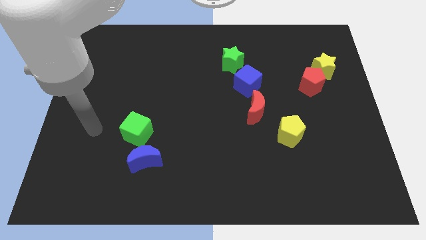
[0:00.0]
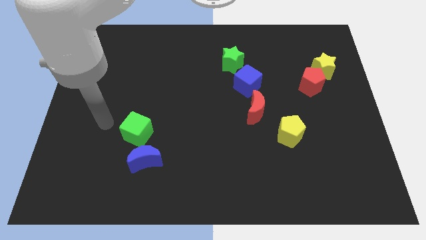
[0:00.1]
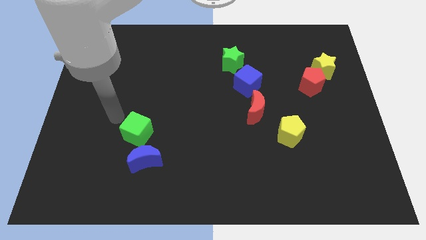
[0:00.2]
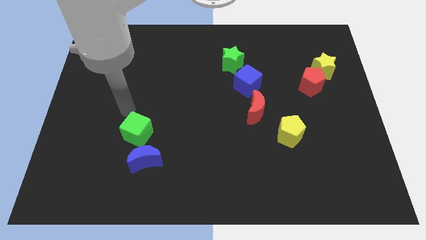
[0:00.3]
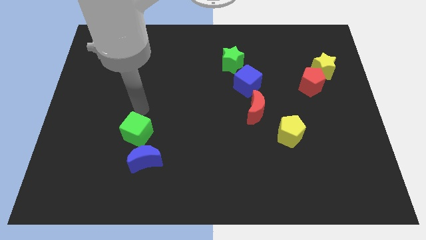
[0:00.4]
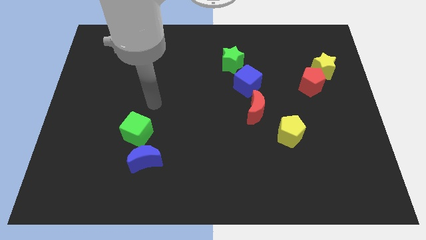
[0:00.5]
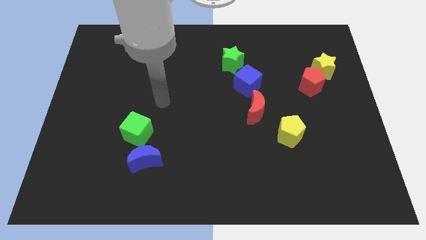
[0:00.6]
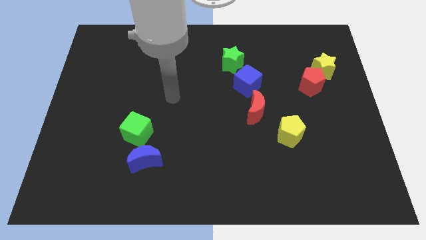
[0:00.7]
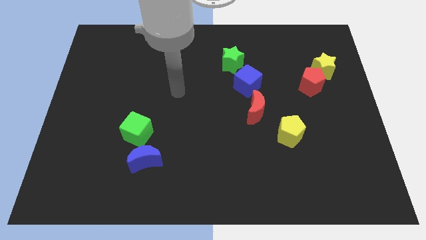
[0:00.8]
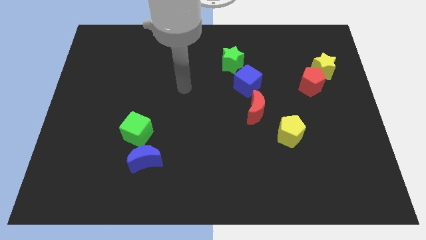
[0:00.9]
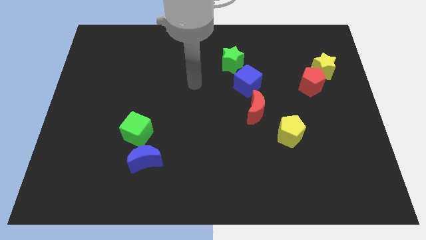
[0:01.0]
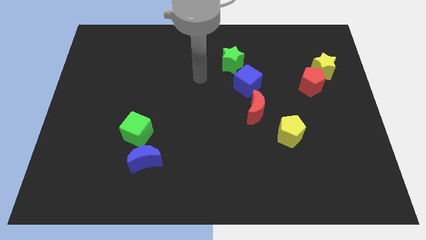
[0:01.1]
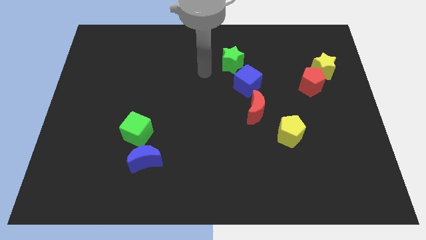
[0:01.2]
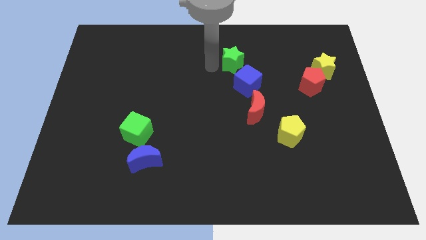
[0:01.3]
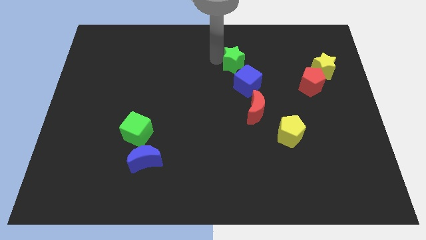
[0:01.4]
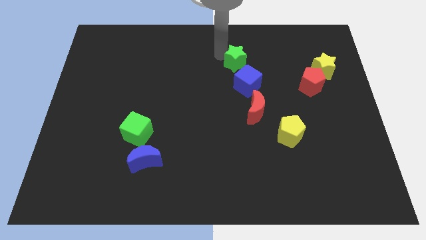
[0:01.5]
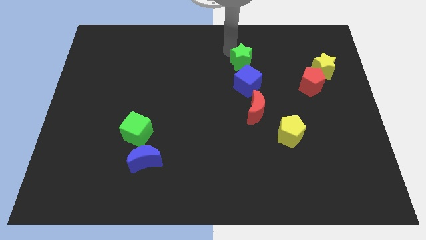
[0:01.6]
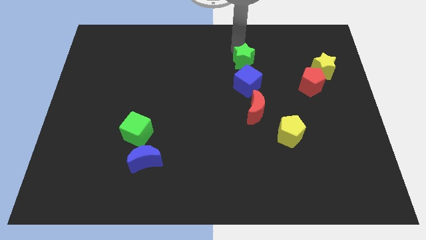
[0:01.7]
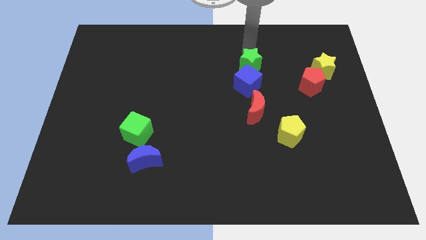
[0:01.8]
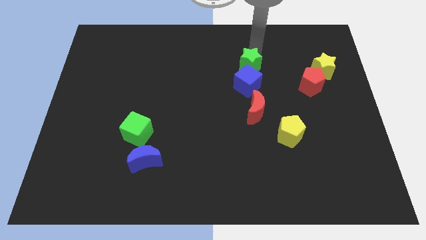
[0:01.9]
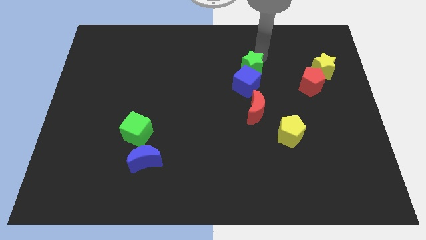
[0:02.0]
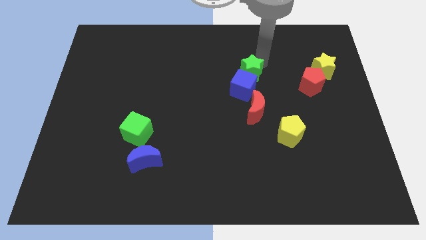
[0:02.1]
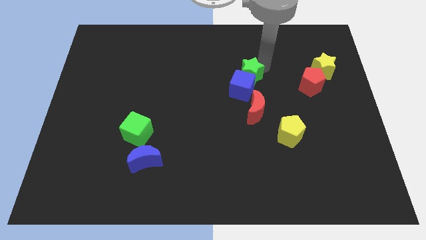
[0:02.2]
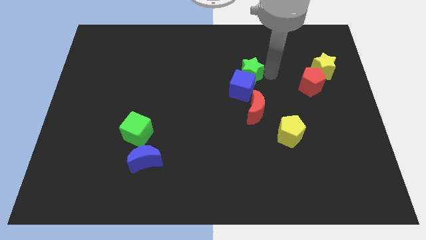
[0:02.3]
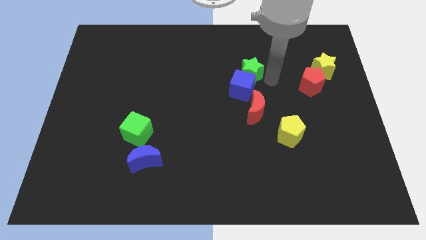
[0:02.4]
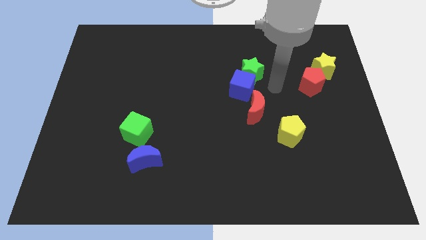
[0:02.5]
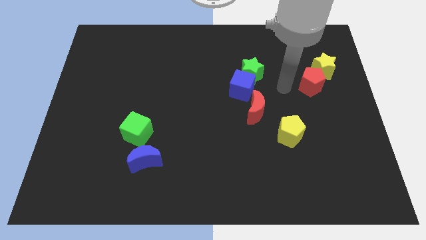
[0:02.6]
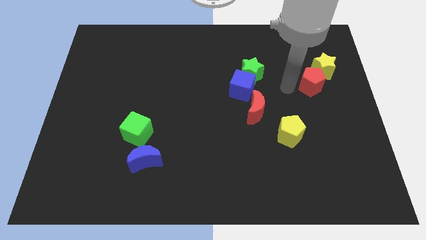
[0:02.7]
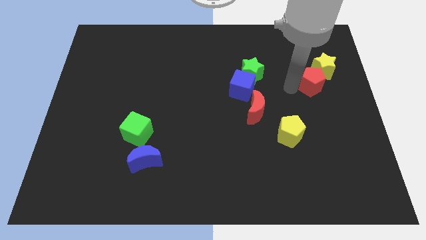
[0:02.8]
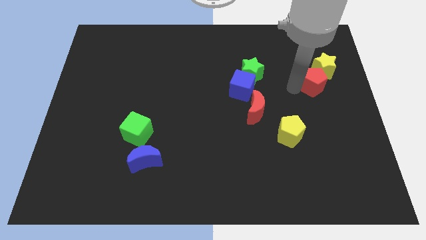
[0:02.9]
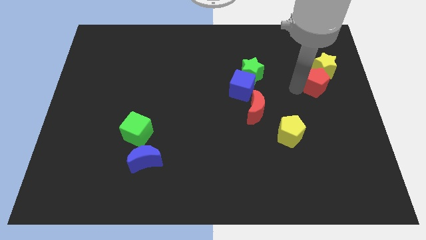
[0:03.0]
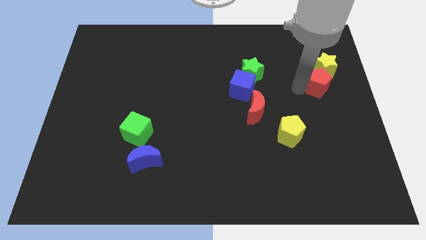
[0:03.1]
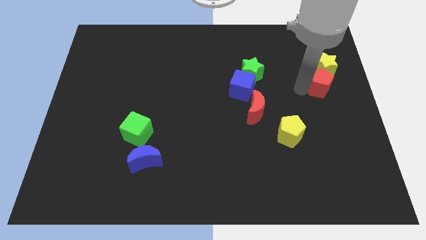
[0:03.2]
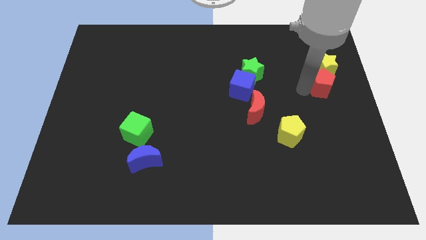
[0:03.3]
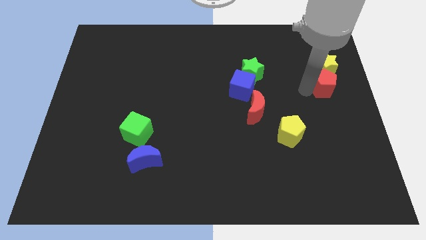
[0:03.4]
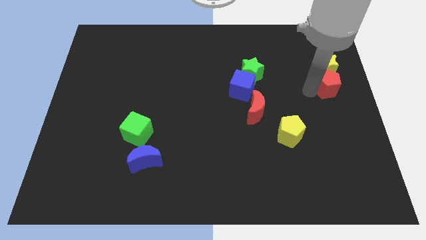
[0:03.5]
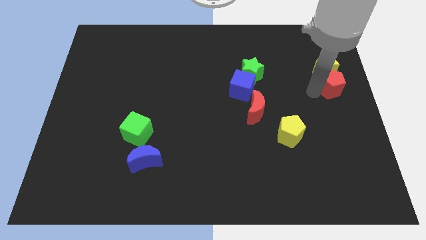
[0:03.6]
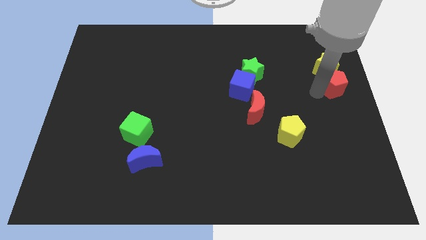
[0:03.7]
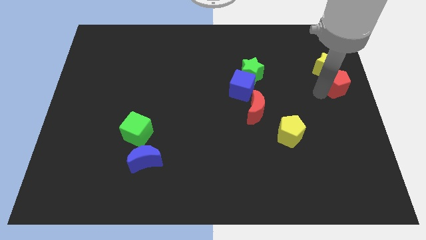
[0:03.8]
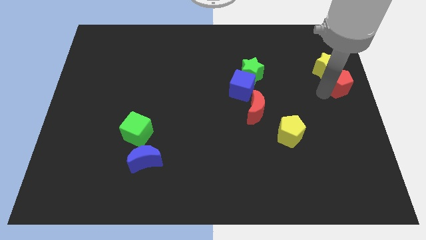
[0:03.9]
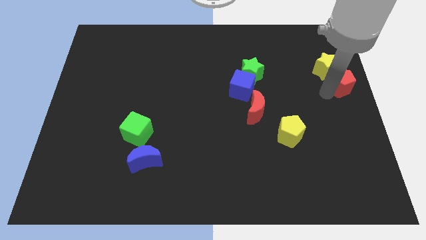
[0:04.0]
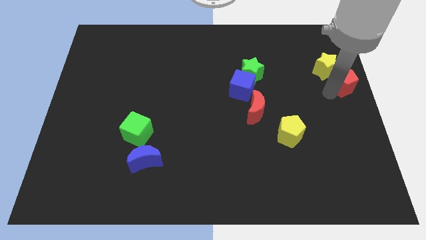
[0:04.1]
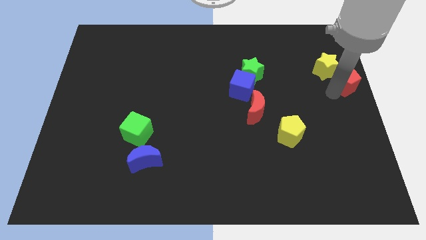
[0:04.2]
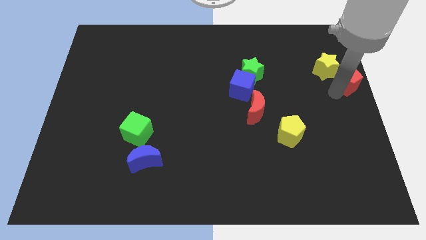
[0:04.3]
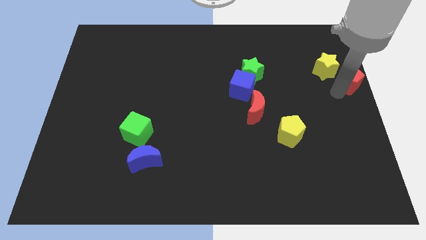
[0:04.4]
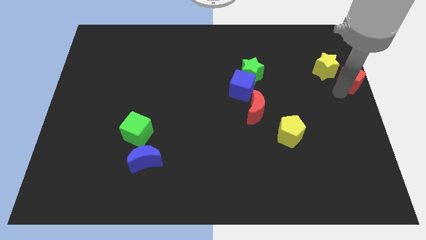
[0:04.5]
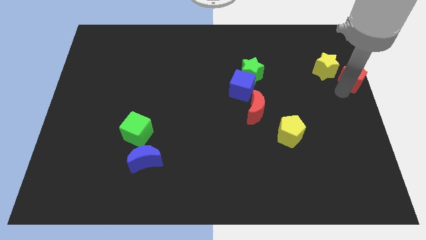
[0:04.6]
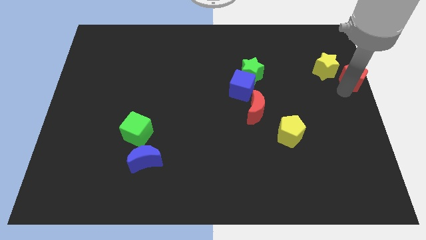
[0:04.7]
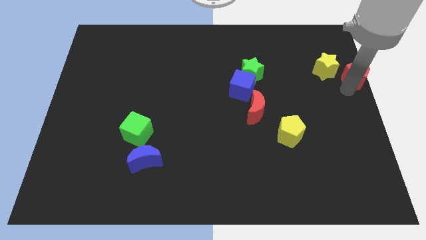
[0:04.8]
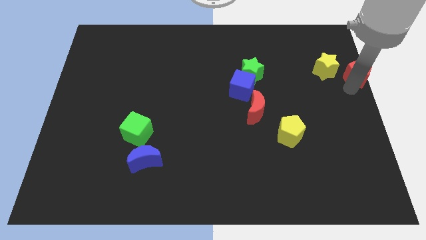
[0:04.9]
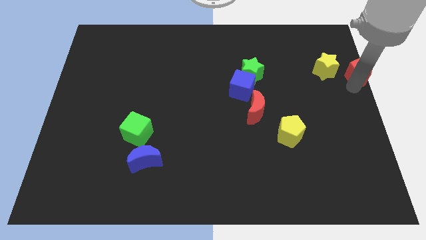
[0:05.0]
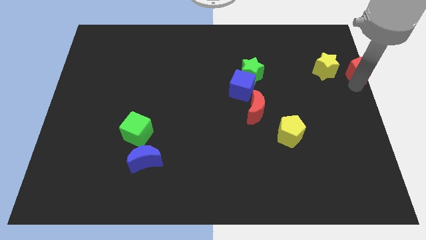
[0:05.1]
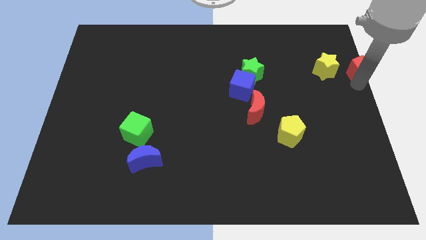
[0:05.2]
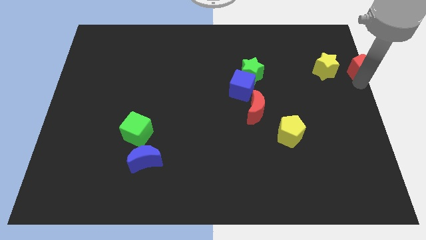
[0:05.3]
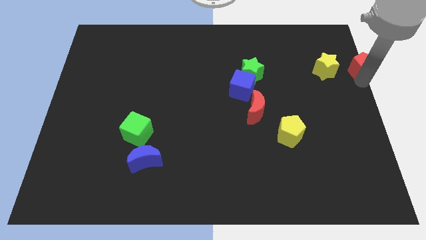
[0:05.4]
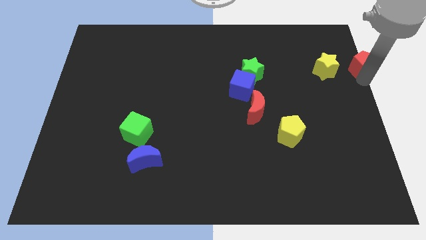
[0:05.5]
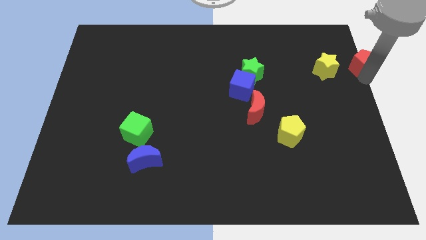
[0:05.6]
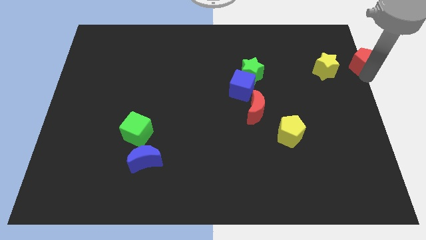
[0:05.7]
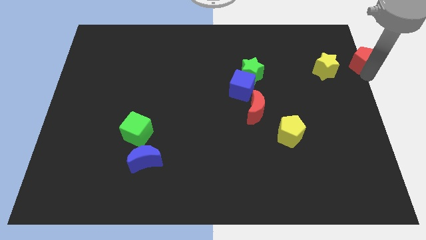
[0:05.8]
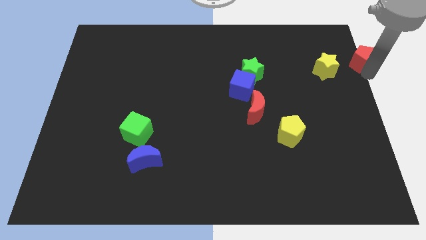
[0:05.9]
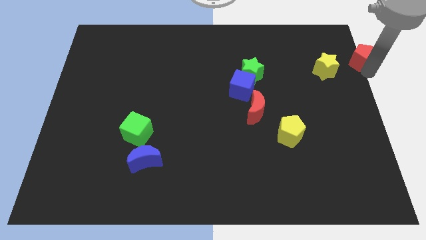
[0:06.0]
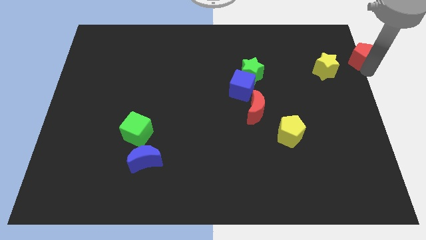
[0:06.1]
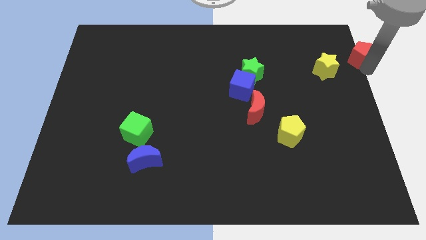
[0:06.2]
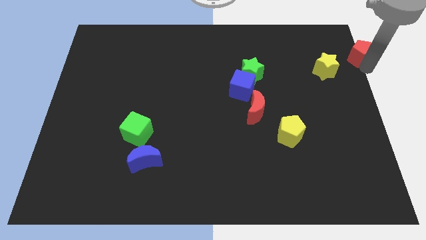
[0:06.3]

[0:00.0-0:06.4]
slide the red pentagon to the top right corner
